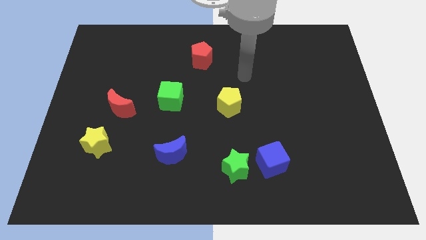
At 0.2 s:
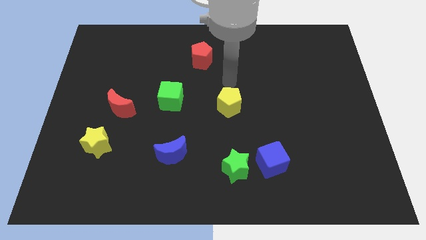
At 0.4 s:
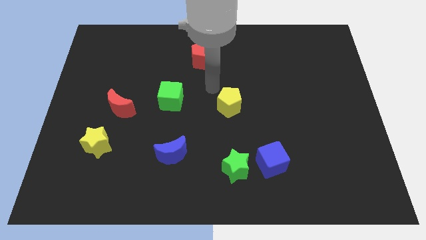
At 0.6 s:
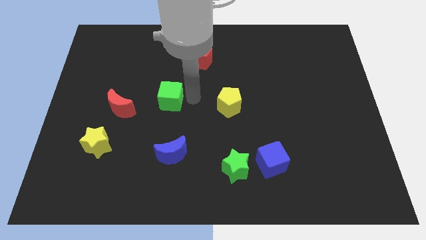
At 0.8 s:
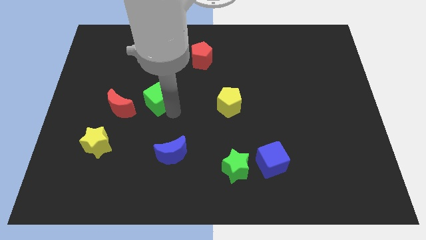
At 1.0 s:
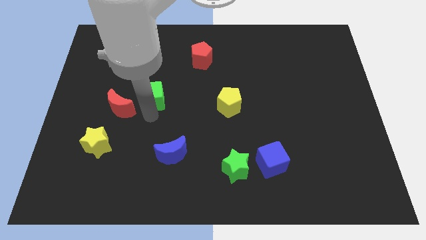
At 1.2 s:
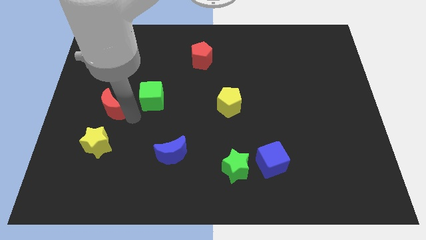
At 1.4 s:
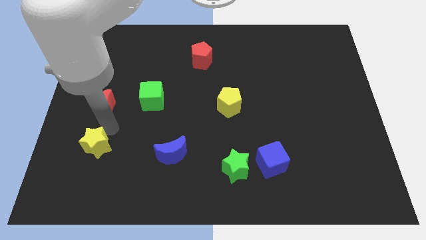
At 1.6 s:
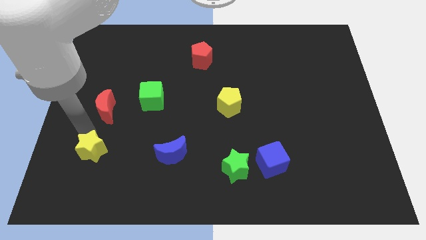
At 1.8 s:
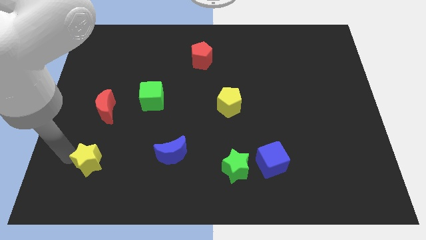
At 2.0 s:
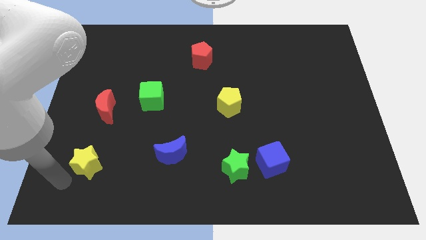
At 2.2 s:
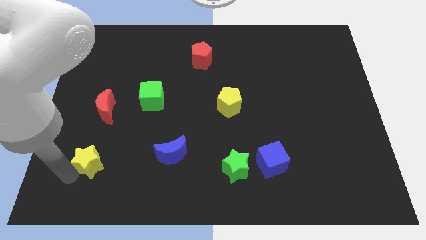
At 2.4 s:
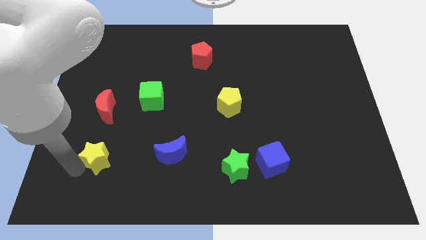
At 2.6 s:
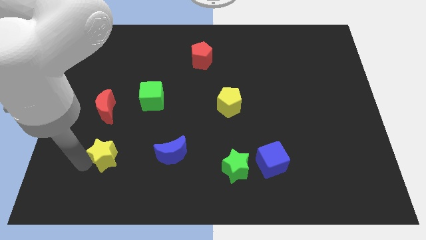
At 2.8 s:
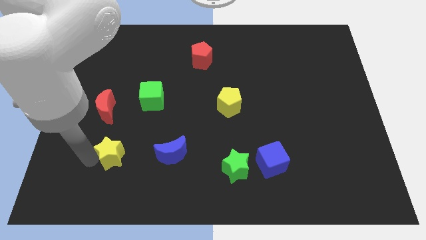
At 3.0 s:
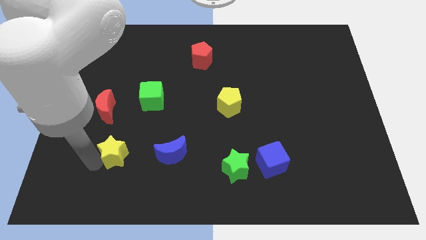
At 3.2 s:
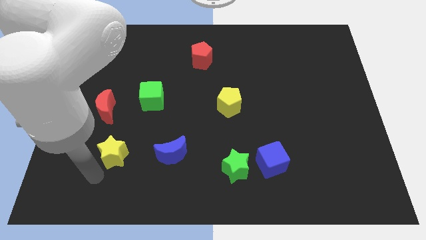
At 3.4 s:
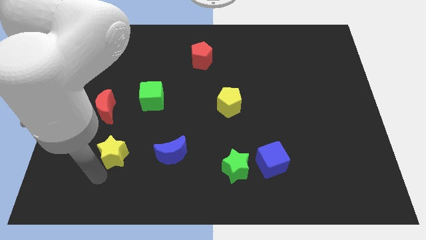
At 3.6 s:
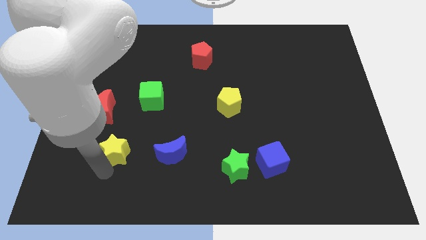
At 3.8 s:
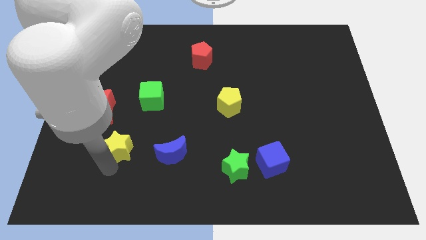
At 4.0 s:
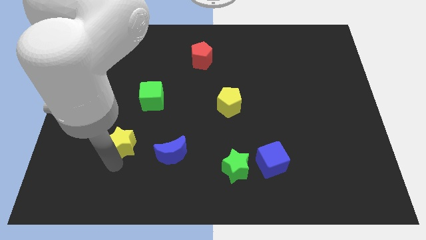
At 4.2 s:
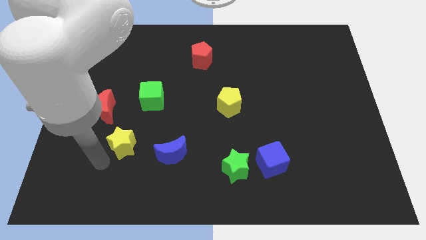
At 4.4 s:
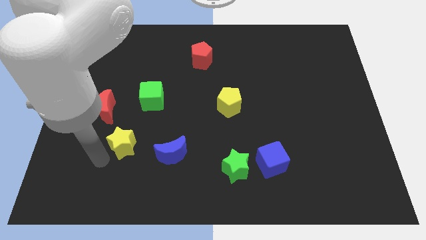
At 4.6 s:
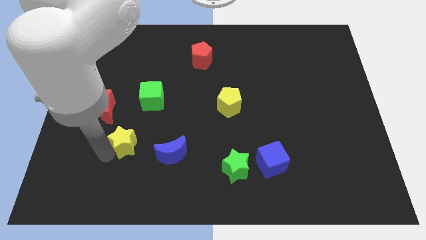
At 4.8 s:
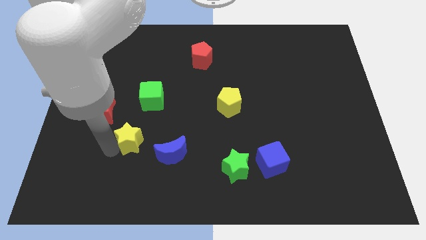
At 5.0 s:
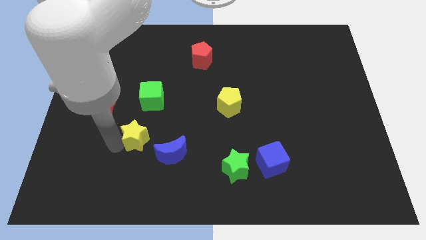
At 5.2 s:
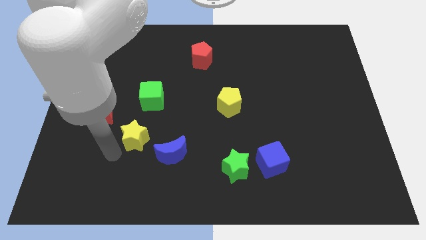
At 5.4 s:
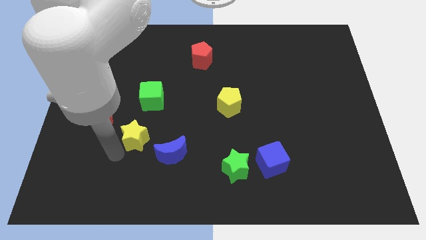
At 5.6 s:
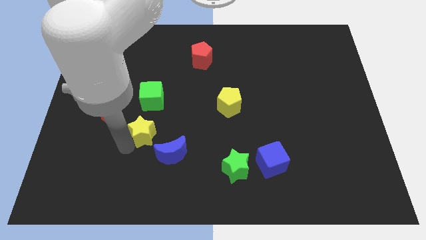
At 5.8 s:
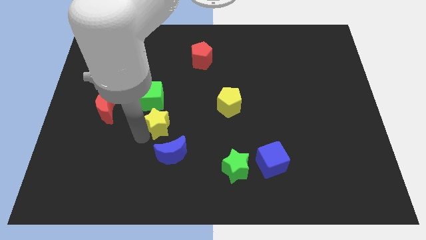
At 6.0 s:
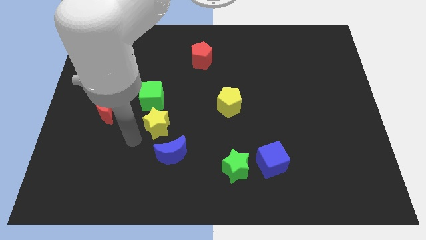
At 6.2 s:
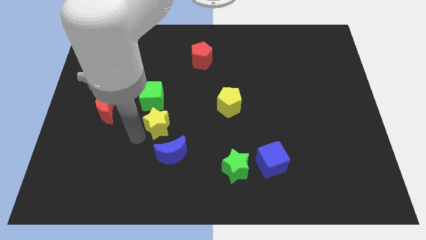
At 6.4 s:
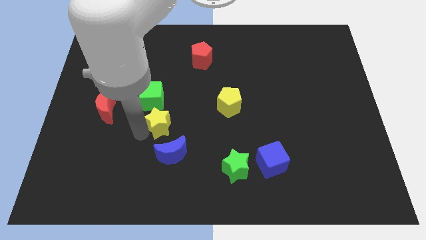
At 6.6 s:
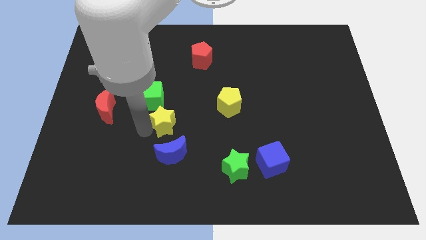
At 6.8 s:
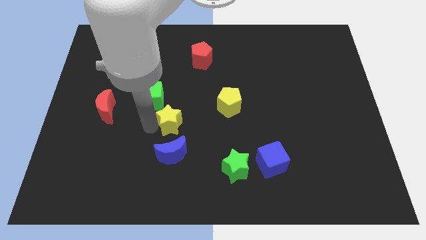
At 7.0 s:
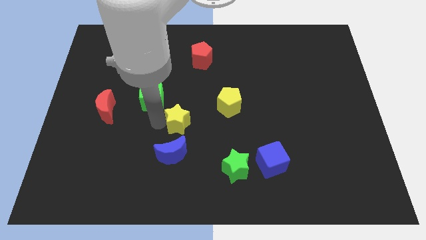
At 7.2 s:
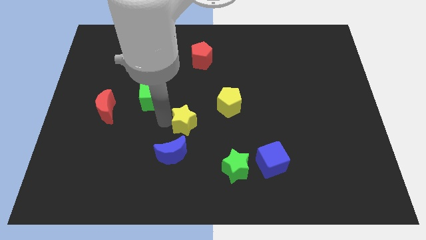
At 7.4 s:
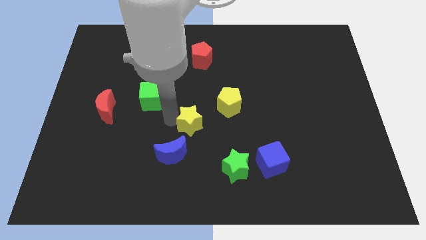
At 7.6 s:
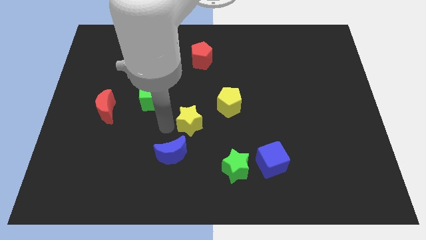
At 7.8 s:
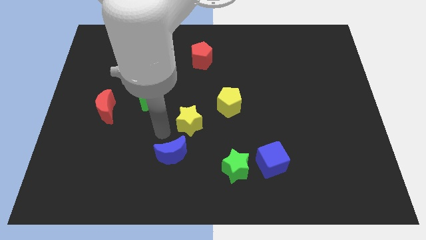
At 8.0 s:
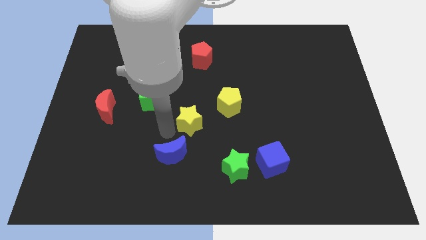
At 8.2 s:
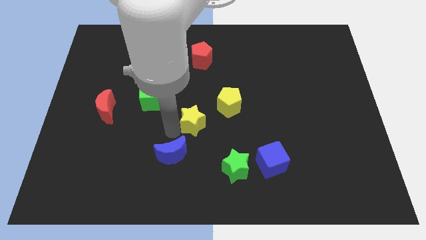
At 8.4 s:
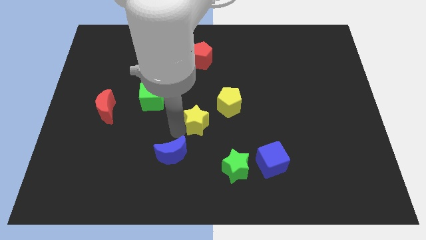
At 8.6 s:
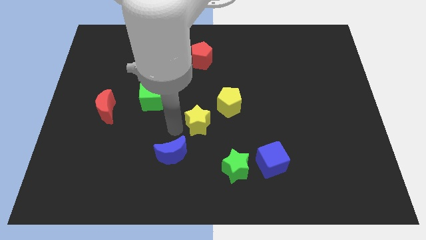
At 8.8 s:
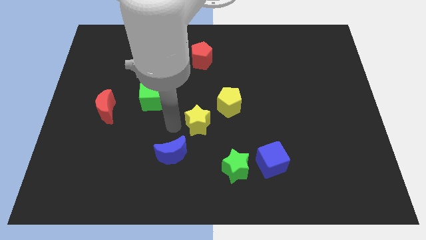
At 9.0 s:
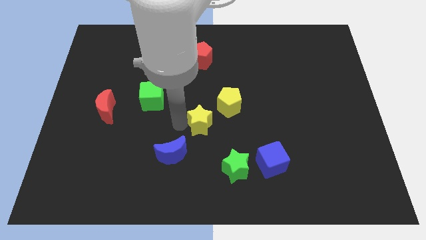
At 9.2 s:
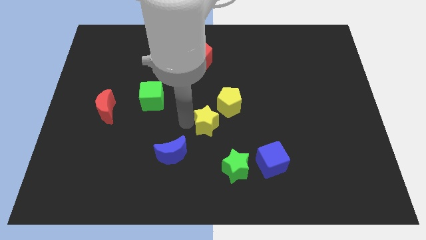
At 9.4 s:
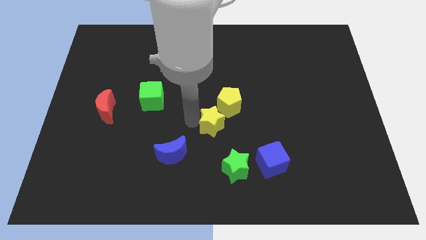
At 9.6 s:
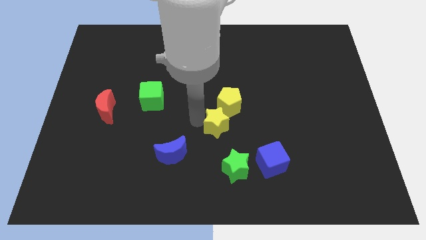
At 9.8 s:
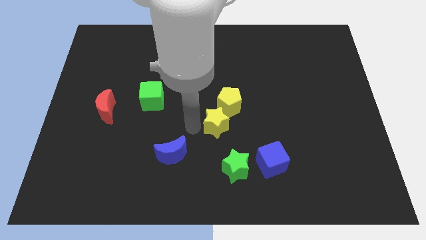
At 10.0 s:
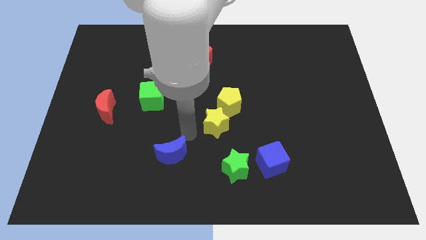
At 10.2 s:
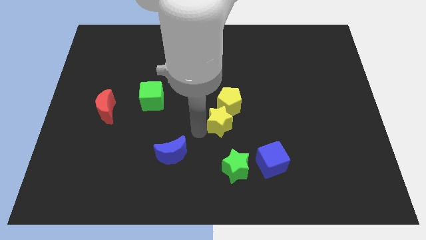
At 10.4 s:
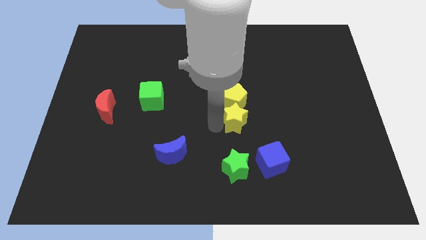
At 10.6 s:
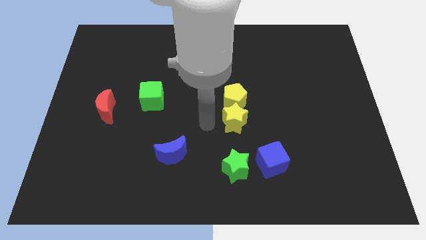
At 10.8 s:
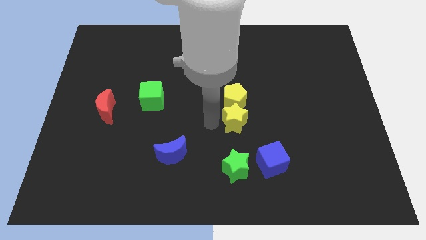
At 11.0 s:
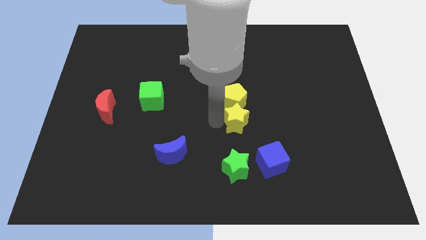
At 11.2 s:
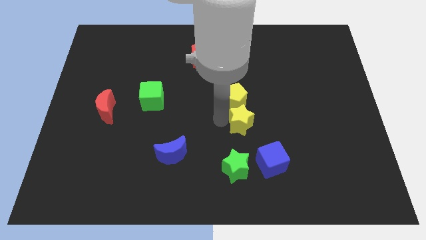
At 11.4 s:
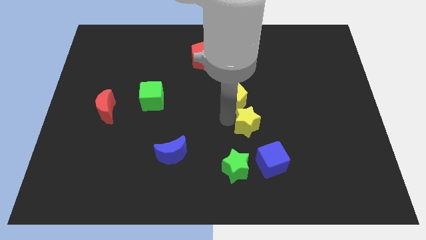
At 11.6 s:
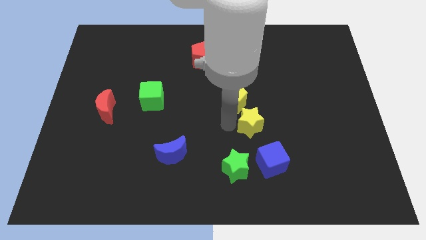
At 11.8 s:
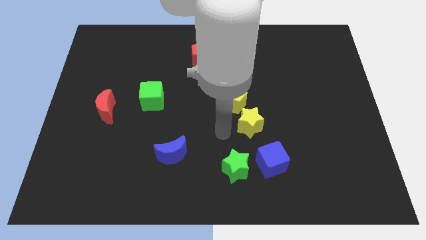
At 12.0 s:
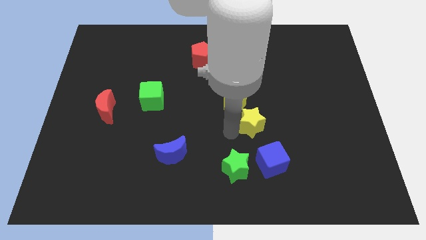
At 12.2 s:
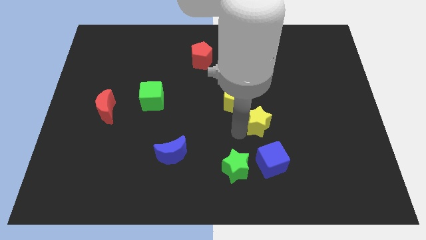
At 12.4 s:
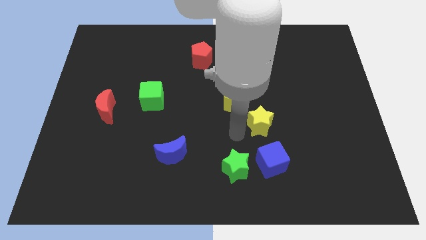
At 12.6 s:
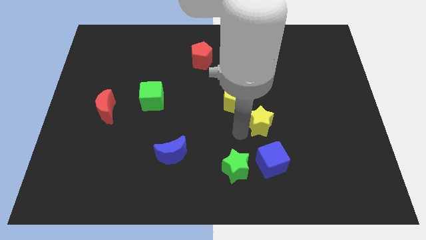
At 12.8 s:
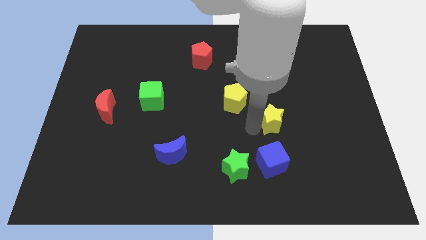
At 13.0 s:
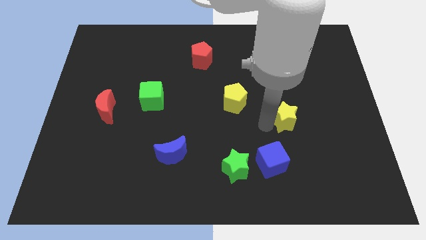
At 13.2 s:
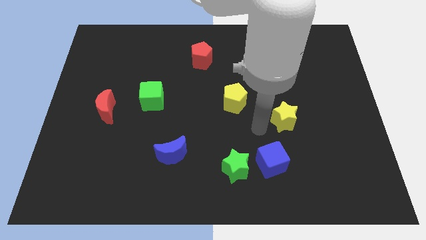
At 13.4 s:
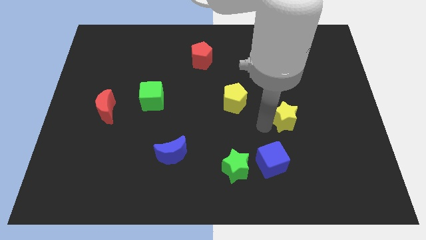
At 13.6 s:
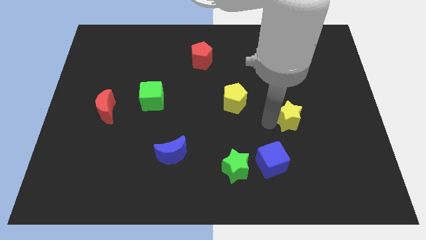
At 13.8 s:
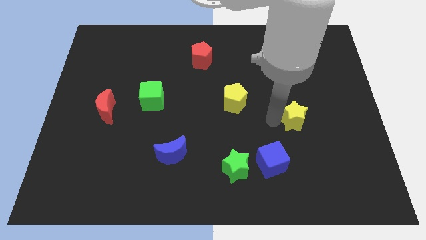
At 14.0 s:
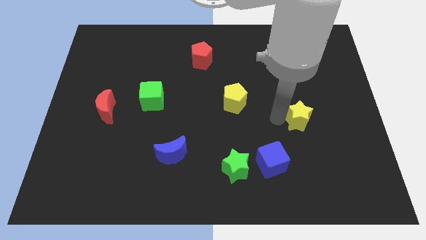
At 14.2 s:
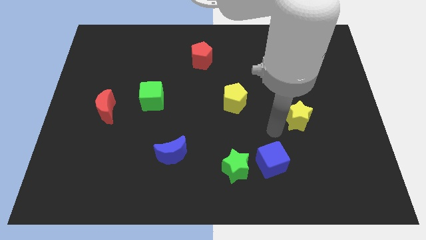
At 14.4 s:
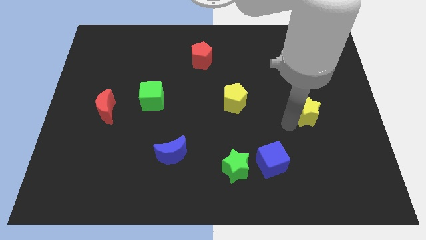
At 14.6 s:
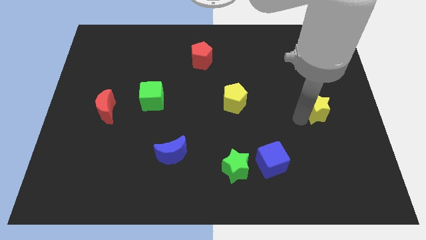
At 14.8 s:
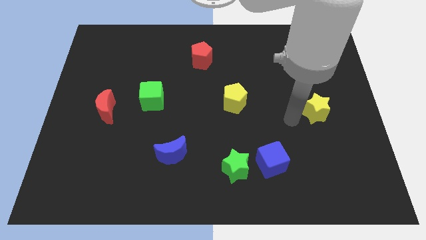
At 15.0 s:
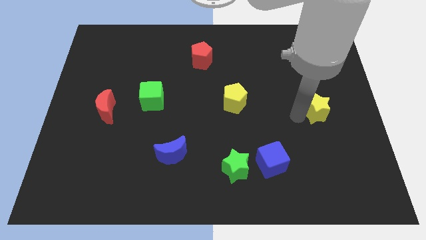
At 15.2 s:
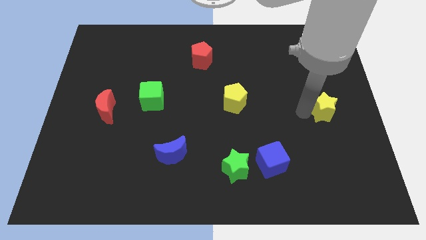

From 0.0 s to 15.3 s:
push the yellow star to the right side of the board
